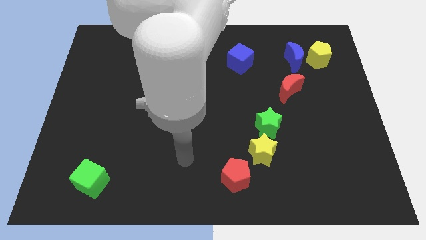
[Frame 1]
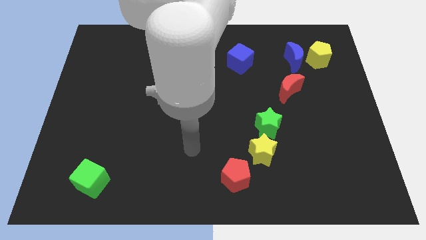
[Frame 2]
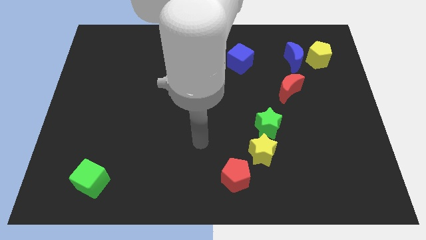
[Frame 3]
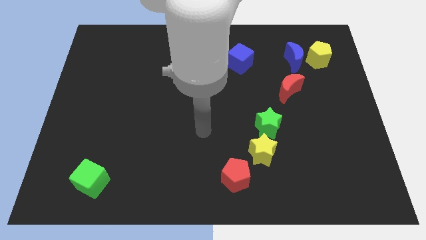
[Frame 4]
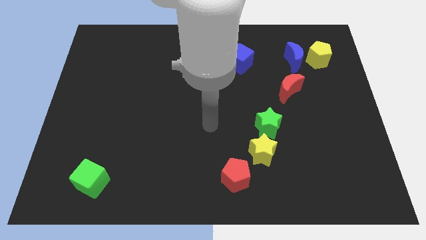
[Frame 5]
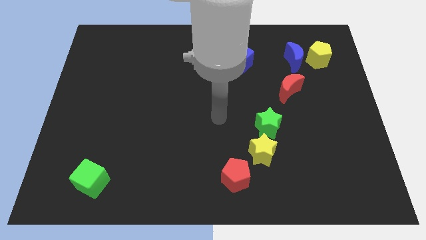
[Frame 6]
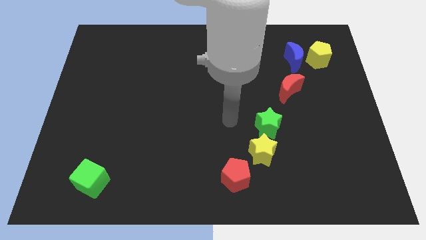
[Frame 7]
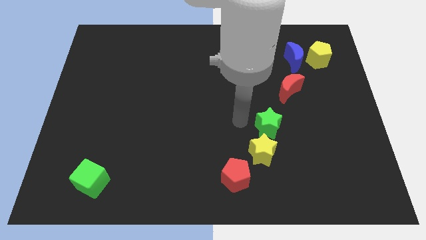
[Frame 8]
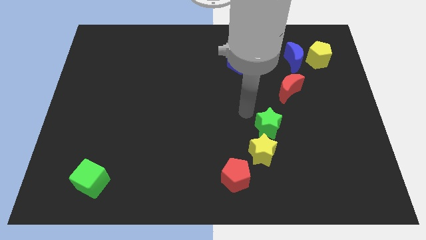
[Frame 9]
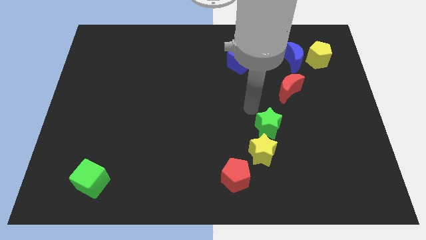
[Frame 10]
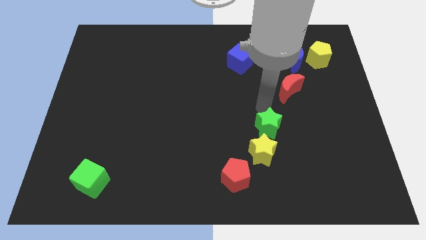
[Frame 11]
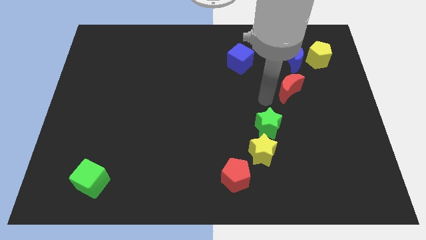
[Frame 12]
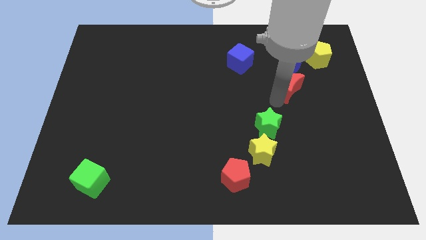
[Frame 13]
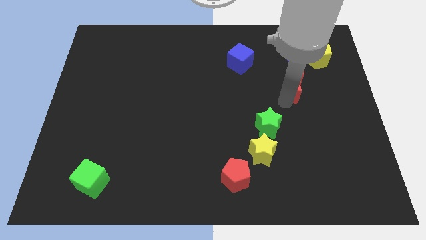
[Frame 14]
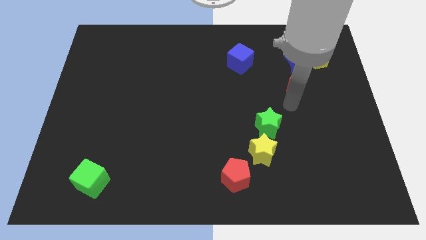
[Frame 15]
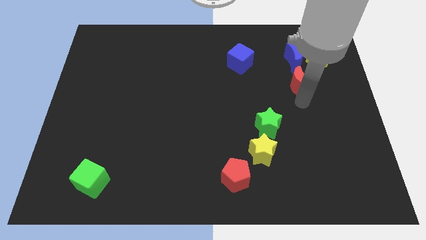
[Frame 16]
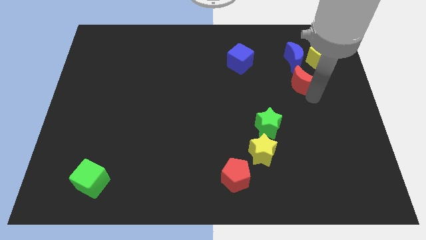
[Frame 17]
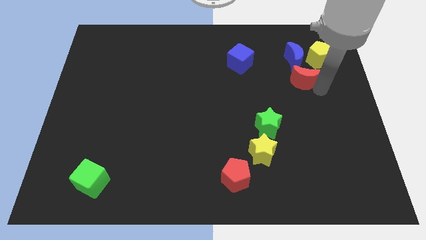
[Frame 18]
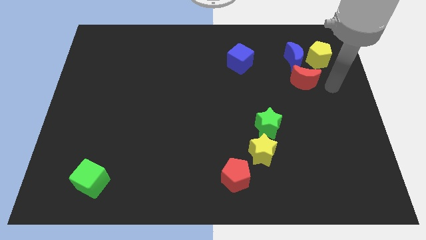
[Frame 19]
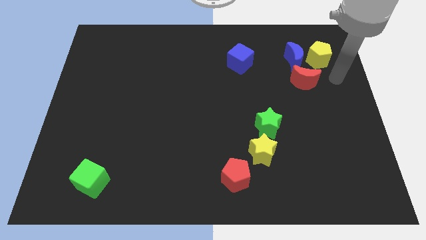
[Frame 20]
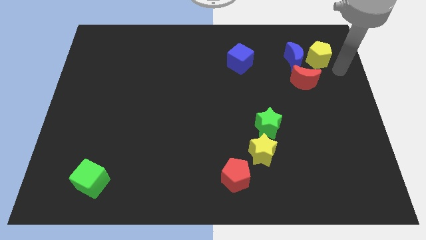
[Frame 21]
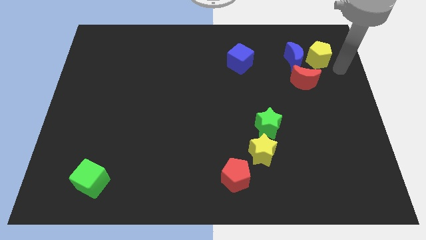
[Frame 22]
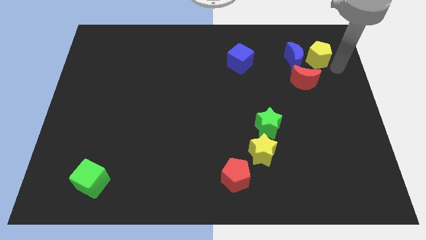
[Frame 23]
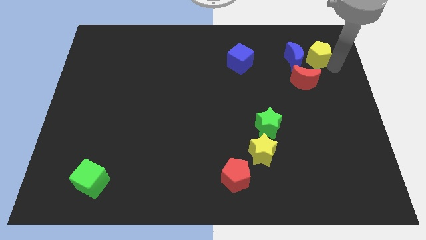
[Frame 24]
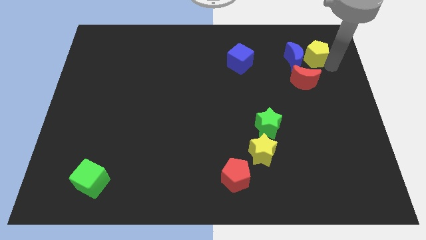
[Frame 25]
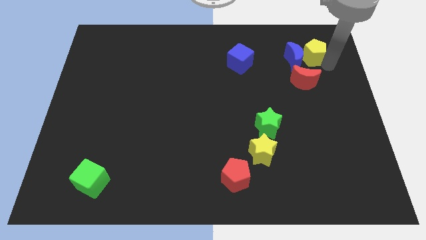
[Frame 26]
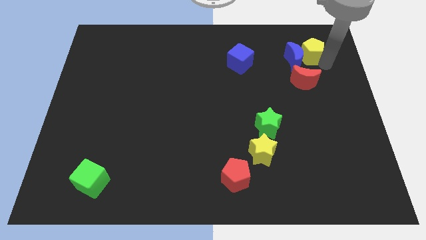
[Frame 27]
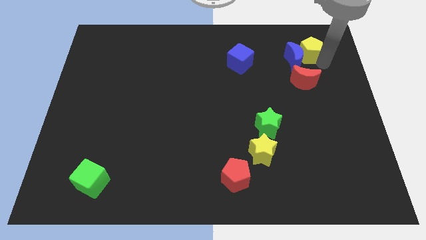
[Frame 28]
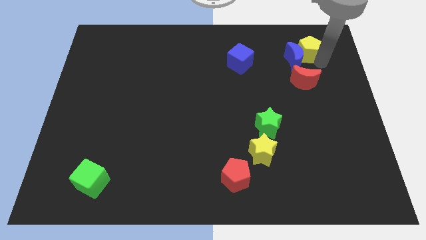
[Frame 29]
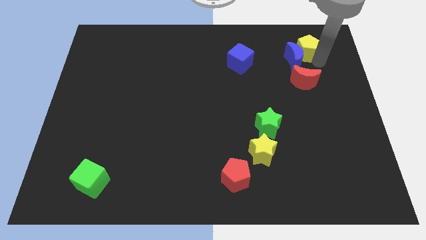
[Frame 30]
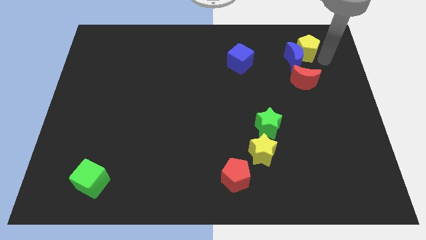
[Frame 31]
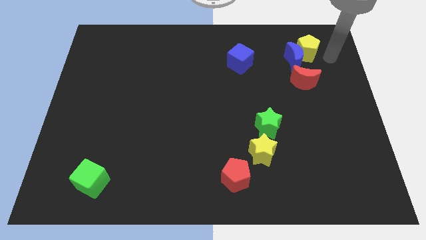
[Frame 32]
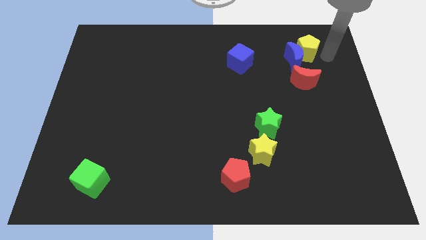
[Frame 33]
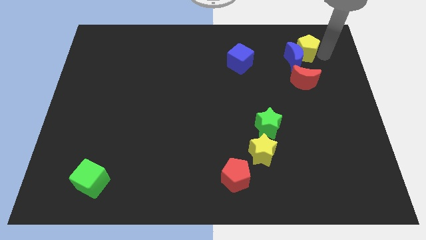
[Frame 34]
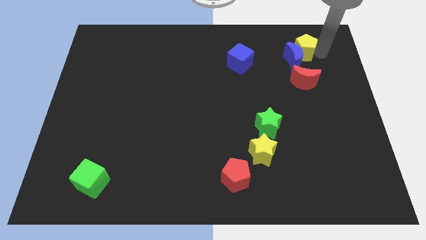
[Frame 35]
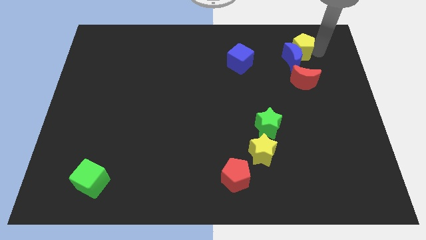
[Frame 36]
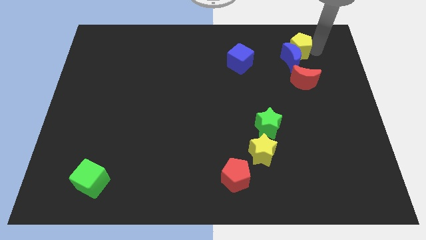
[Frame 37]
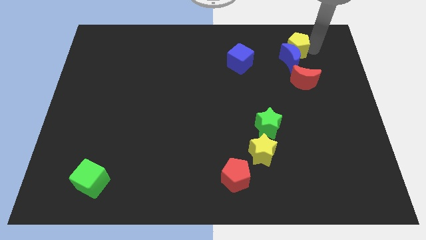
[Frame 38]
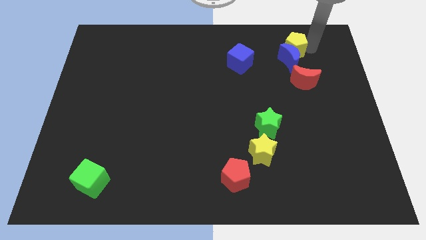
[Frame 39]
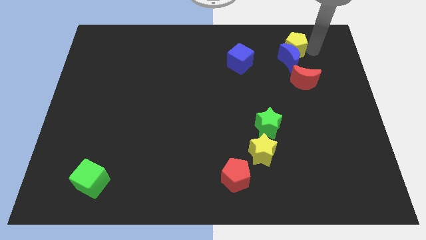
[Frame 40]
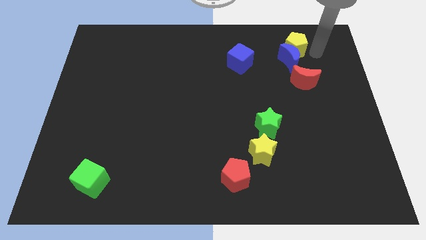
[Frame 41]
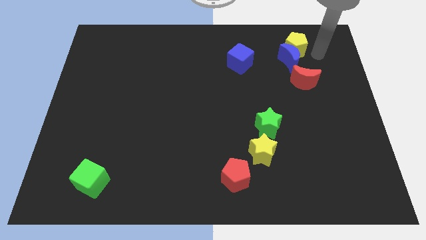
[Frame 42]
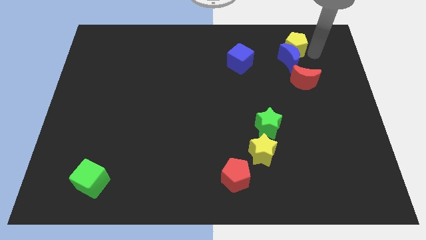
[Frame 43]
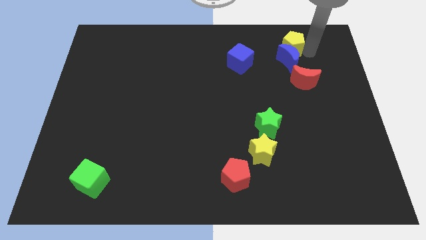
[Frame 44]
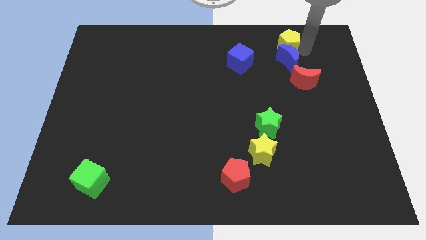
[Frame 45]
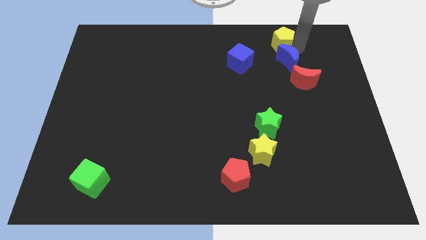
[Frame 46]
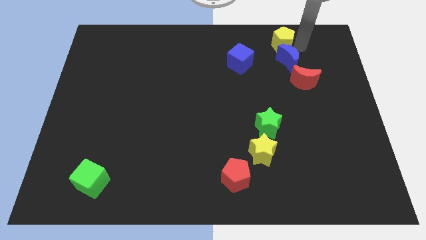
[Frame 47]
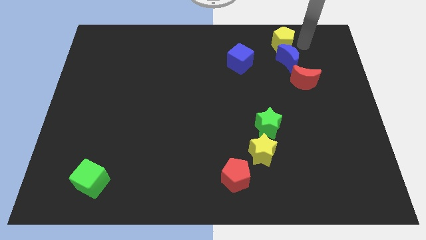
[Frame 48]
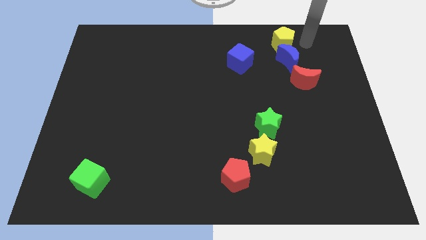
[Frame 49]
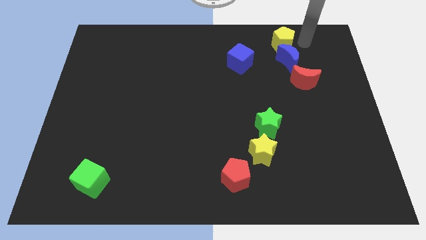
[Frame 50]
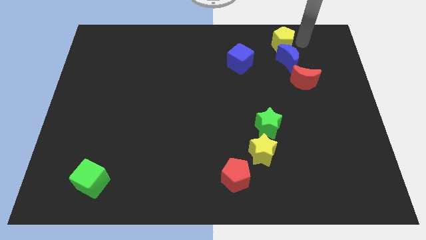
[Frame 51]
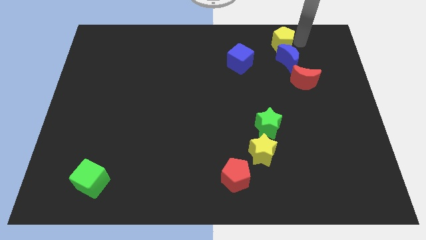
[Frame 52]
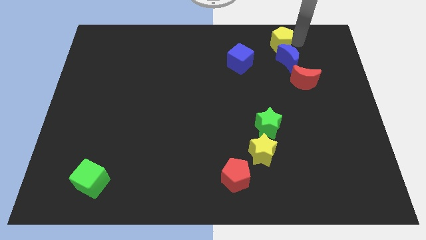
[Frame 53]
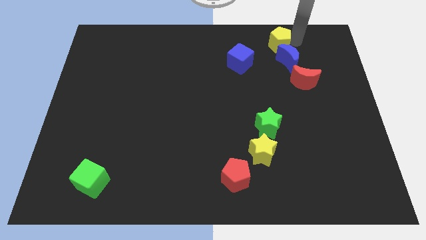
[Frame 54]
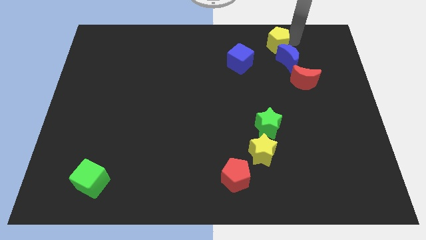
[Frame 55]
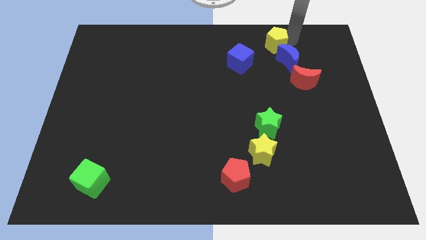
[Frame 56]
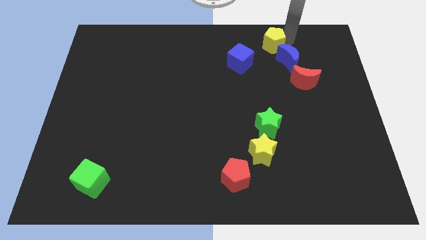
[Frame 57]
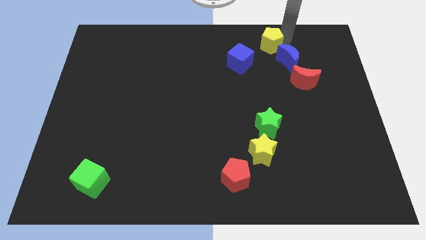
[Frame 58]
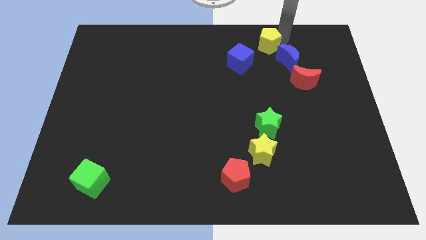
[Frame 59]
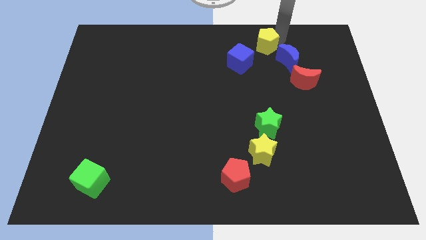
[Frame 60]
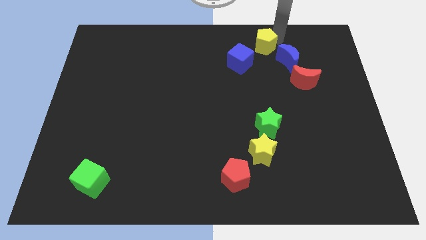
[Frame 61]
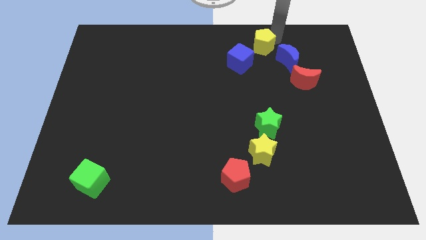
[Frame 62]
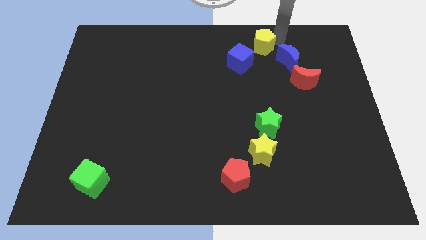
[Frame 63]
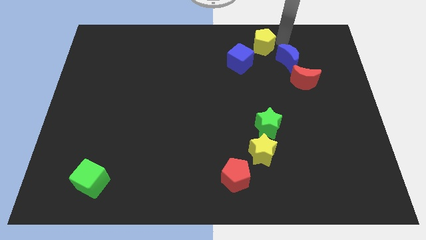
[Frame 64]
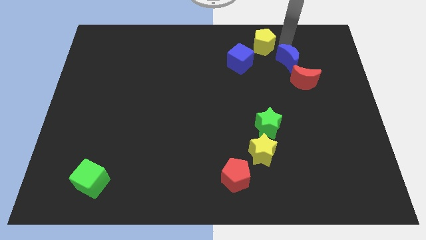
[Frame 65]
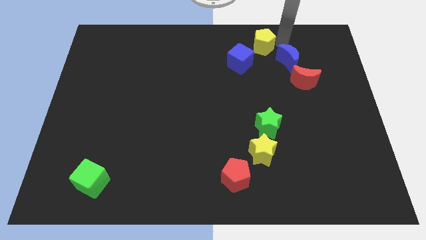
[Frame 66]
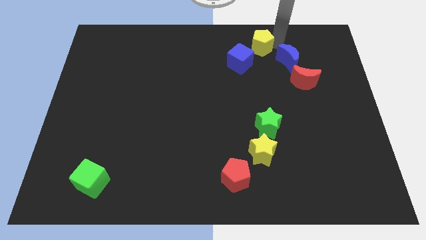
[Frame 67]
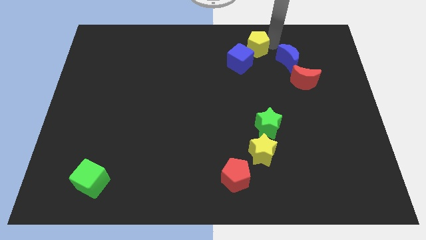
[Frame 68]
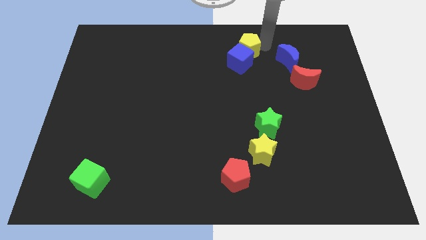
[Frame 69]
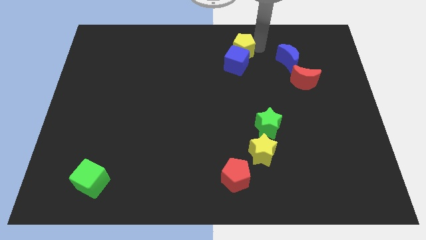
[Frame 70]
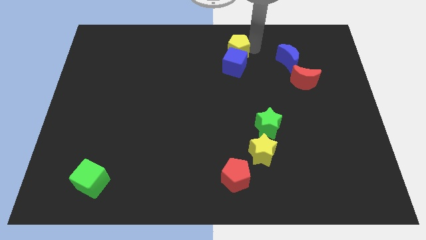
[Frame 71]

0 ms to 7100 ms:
slide the yellow pentagon left

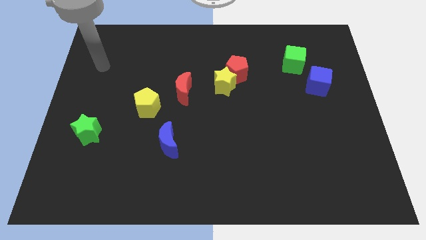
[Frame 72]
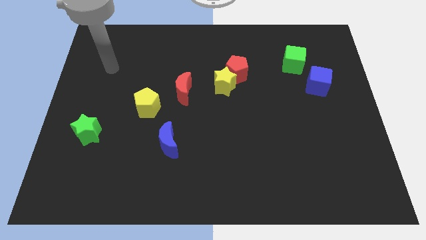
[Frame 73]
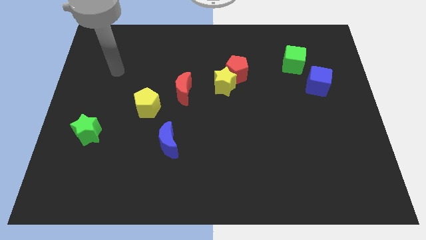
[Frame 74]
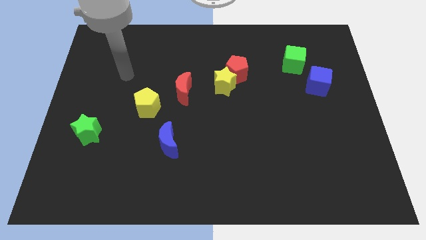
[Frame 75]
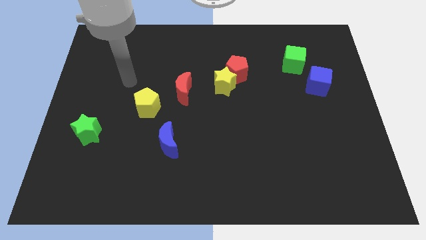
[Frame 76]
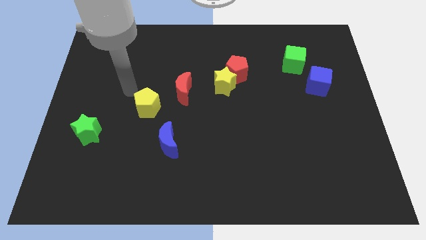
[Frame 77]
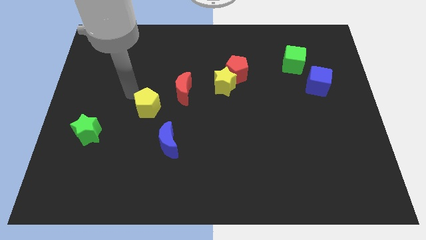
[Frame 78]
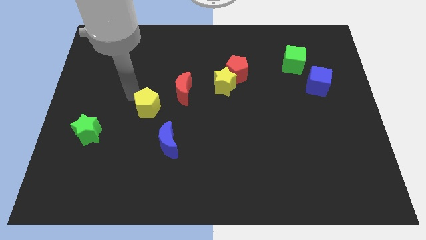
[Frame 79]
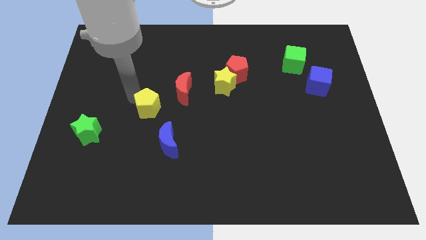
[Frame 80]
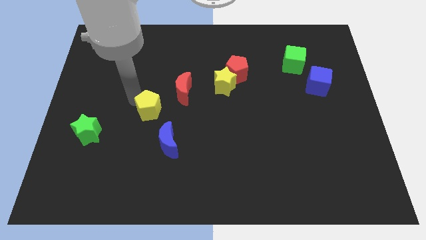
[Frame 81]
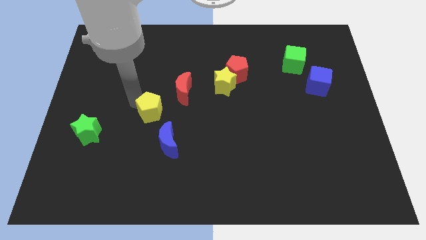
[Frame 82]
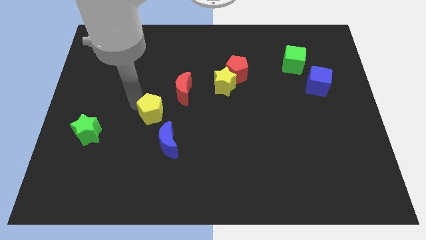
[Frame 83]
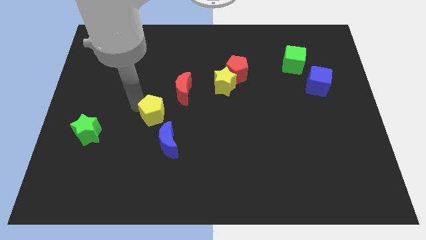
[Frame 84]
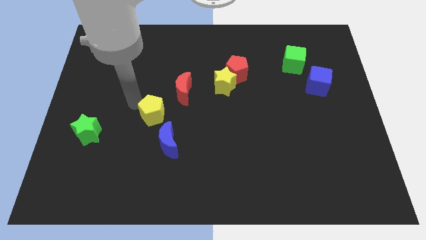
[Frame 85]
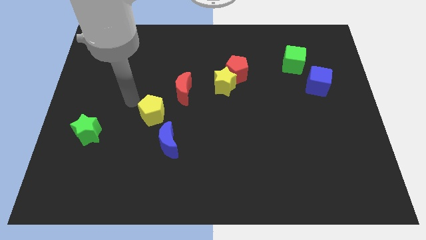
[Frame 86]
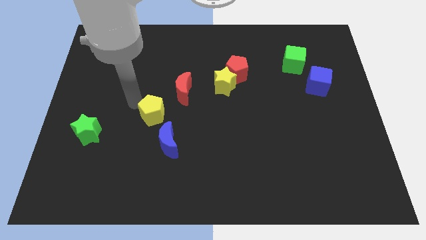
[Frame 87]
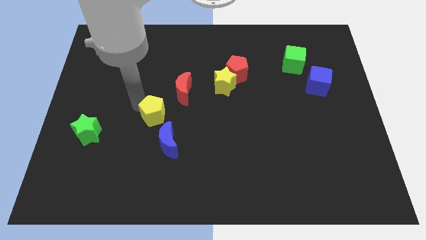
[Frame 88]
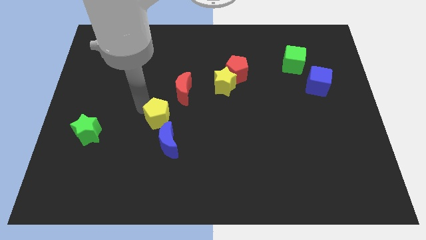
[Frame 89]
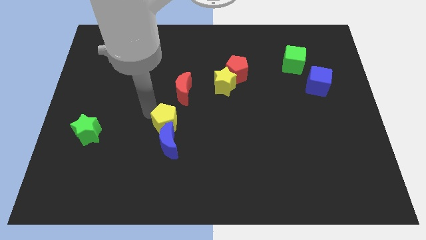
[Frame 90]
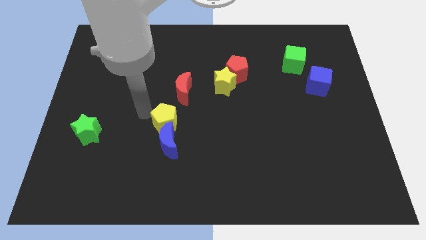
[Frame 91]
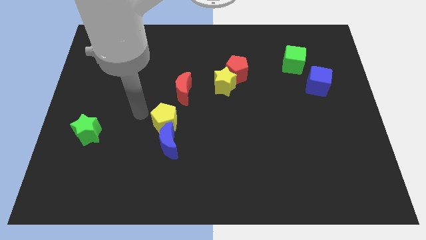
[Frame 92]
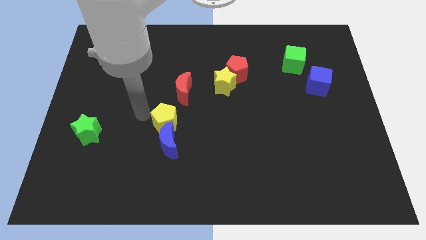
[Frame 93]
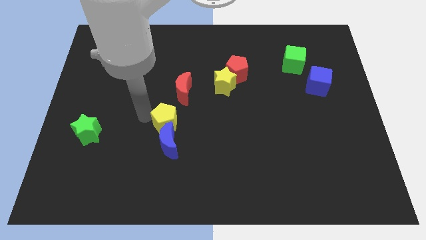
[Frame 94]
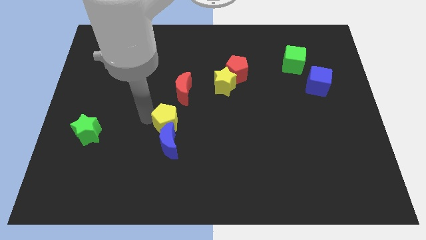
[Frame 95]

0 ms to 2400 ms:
slide the yellow pentagon somewhat downwards and right
